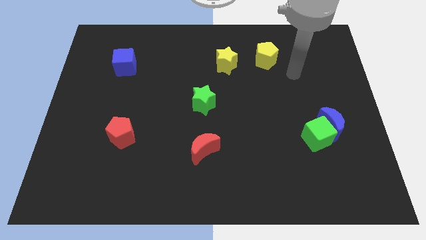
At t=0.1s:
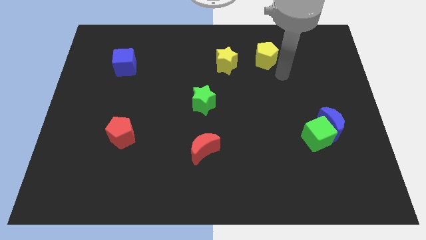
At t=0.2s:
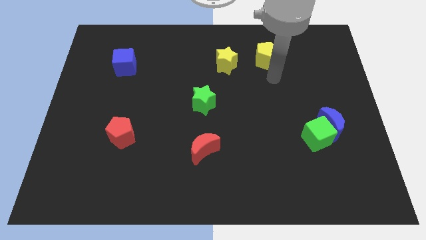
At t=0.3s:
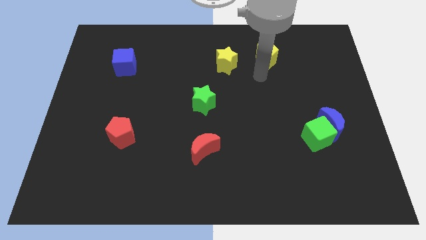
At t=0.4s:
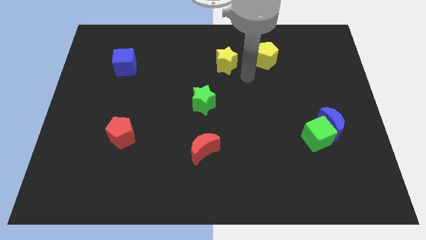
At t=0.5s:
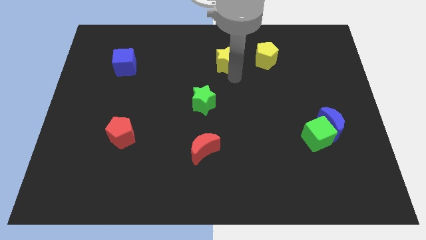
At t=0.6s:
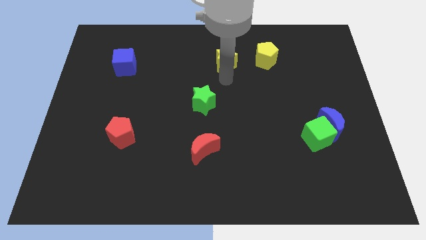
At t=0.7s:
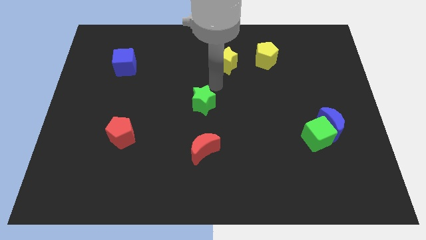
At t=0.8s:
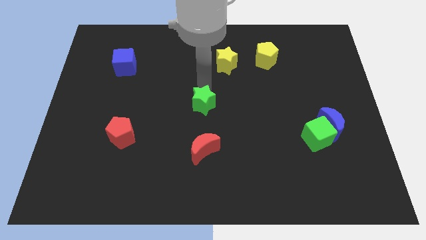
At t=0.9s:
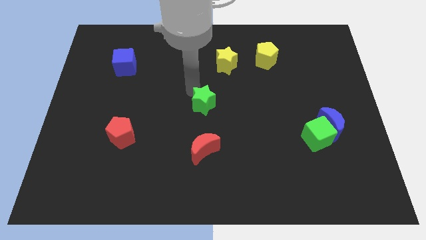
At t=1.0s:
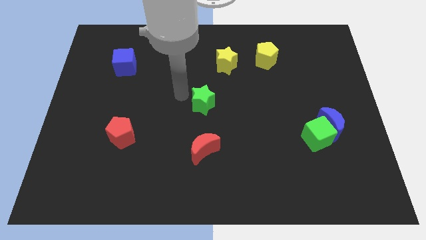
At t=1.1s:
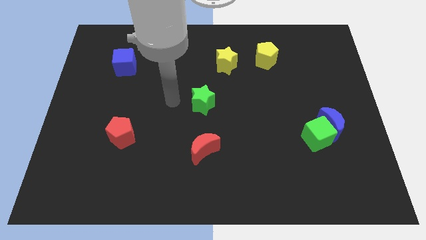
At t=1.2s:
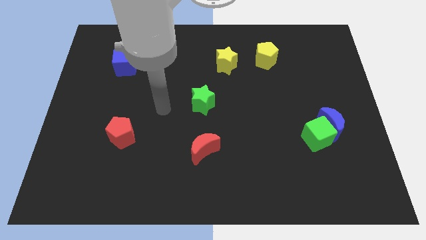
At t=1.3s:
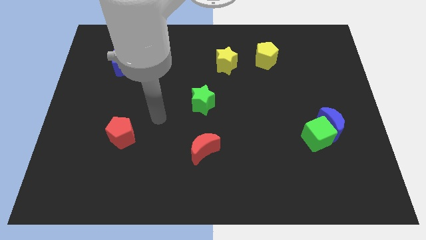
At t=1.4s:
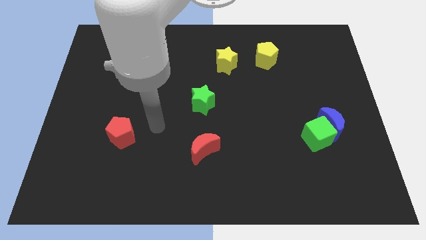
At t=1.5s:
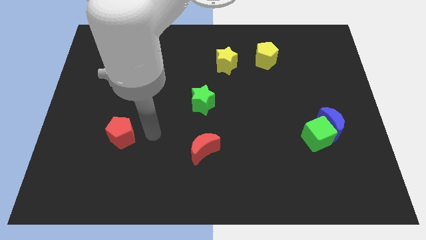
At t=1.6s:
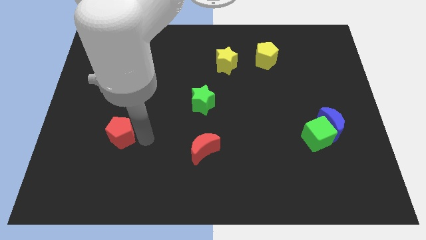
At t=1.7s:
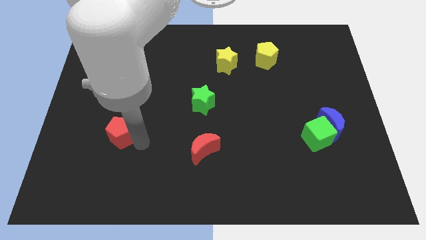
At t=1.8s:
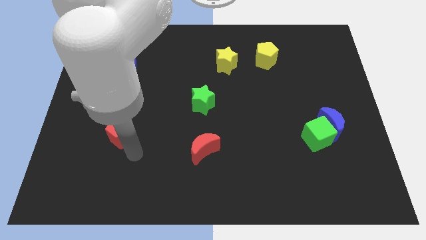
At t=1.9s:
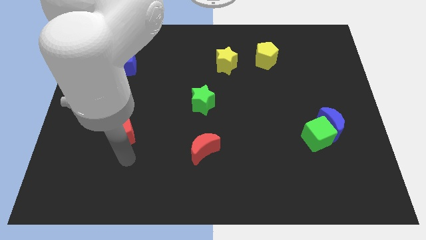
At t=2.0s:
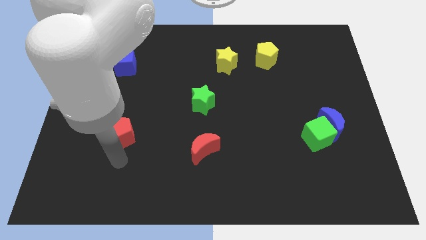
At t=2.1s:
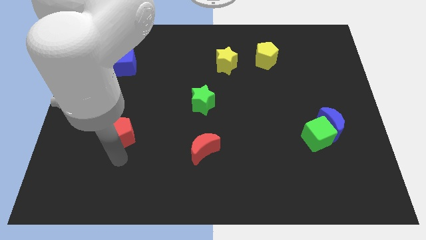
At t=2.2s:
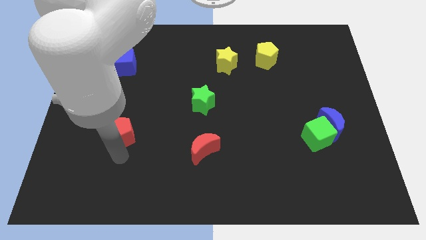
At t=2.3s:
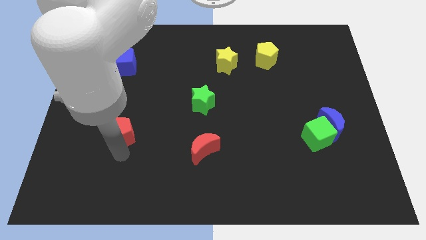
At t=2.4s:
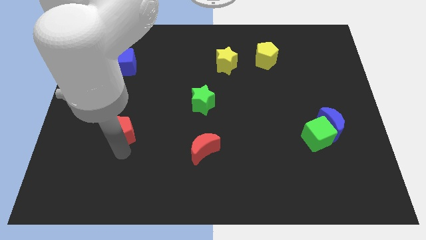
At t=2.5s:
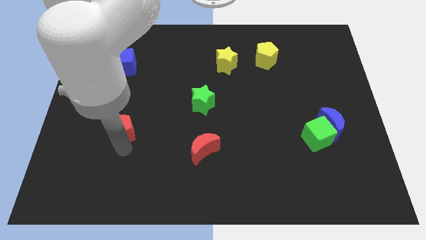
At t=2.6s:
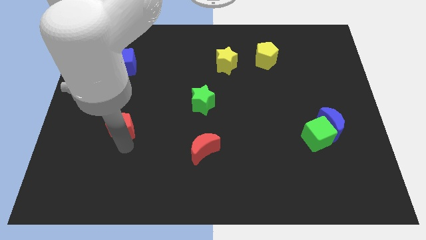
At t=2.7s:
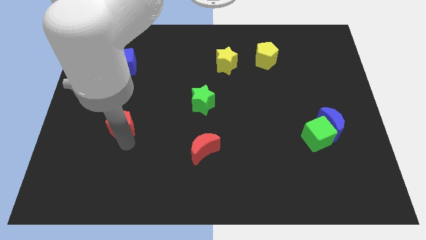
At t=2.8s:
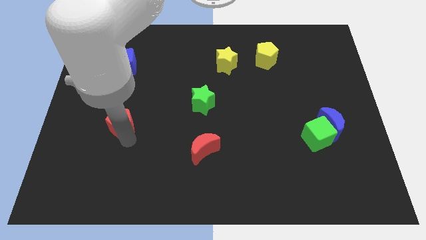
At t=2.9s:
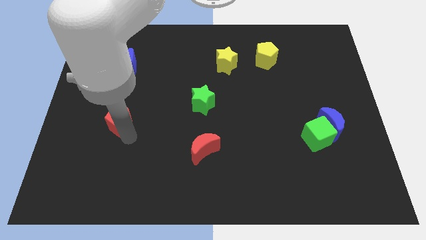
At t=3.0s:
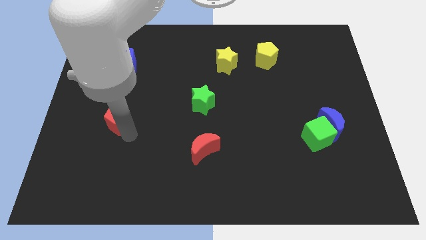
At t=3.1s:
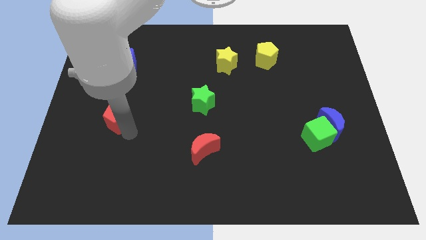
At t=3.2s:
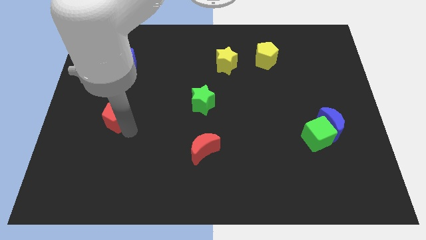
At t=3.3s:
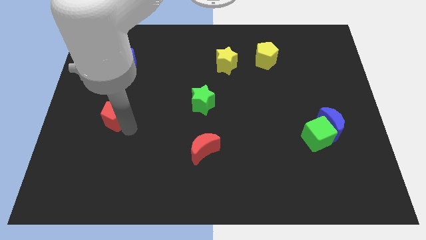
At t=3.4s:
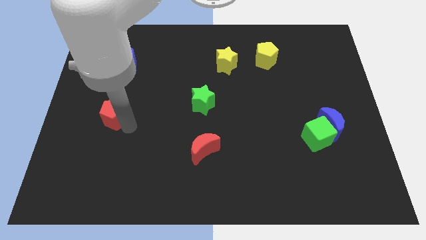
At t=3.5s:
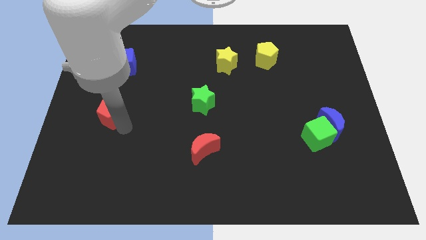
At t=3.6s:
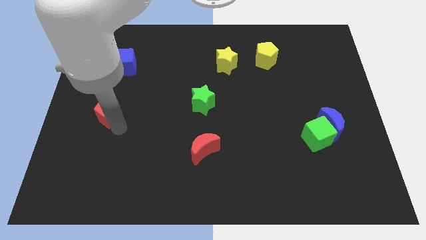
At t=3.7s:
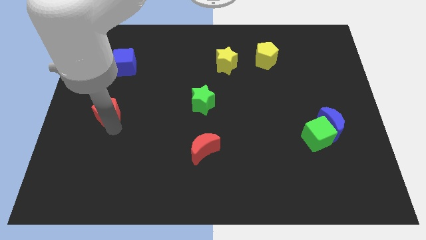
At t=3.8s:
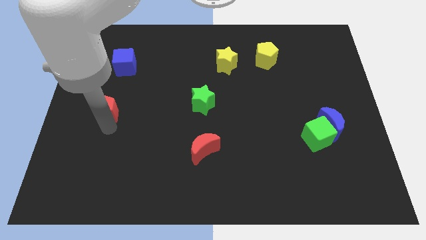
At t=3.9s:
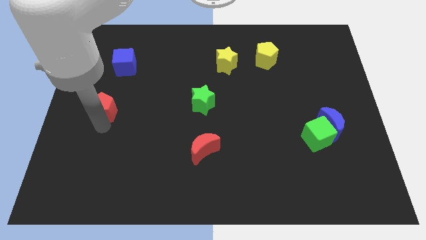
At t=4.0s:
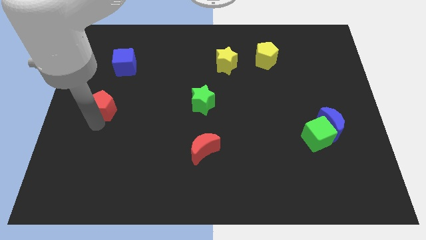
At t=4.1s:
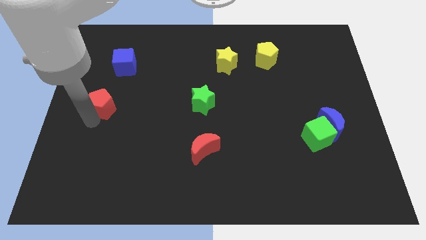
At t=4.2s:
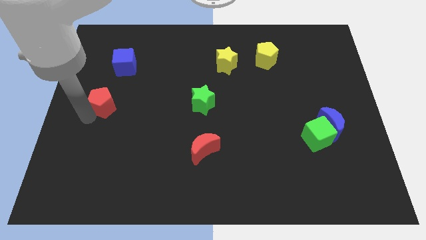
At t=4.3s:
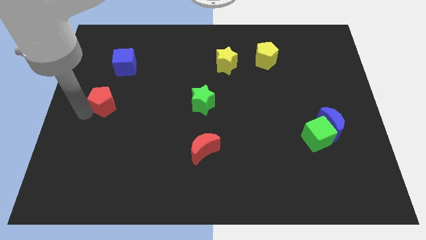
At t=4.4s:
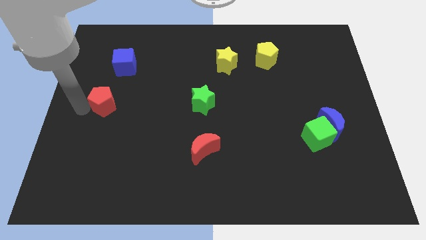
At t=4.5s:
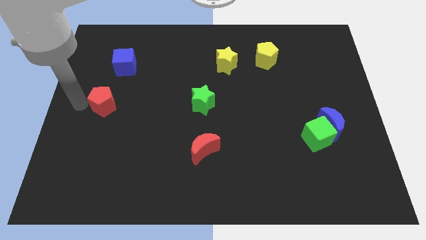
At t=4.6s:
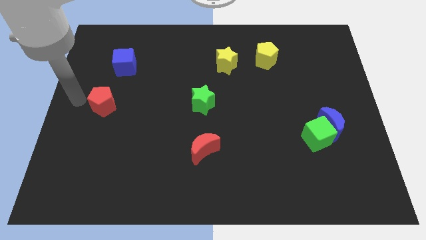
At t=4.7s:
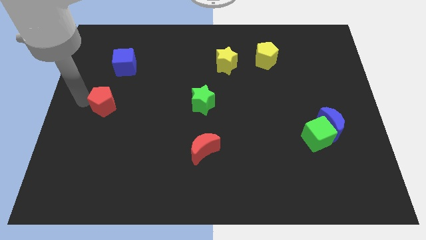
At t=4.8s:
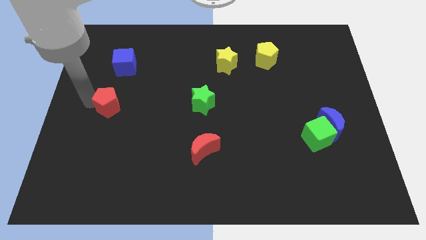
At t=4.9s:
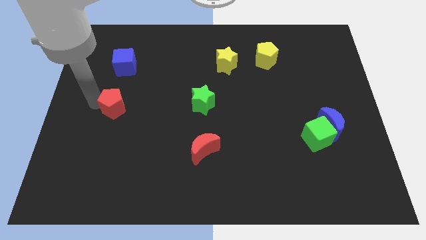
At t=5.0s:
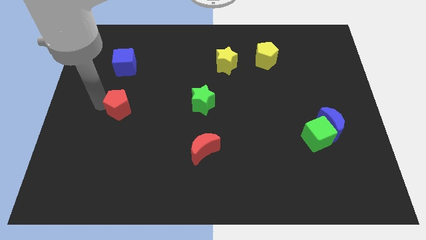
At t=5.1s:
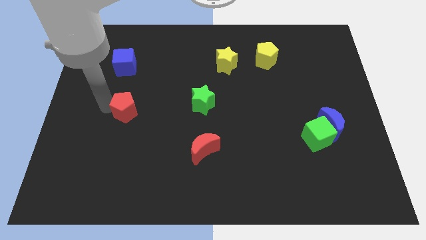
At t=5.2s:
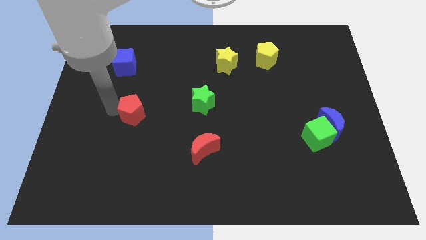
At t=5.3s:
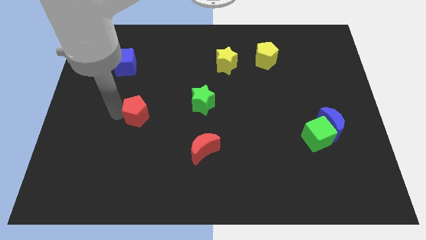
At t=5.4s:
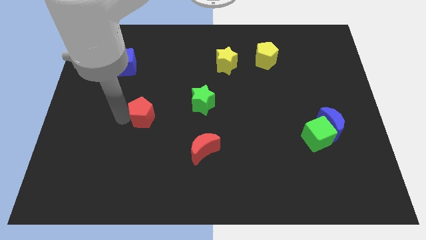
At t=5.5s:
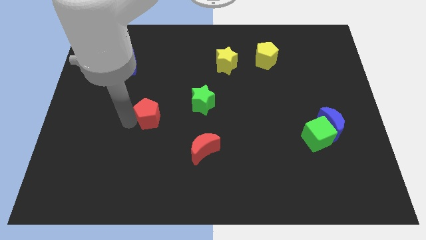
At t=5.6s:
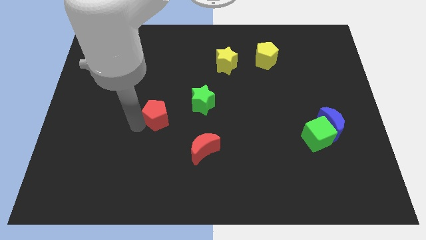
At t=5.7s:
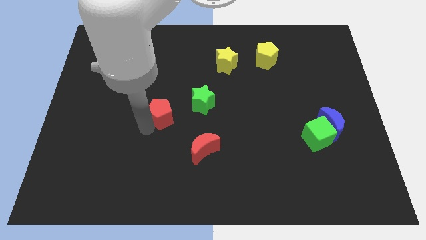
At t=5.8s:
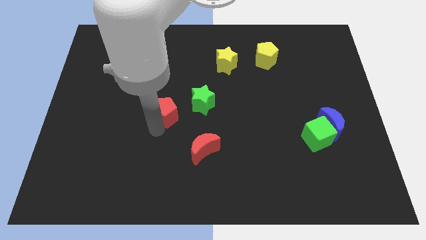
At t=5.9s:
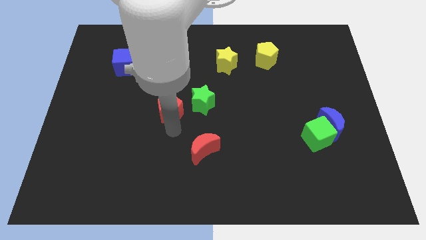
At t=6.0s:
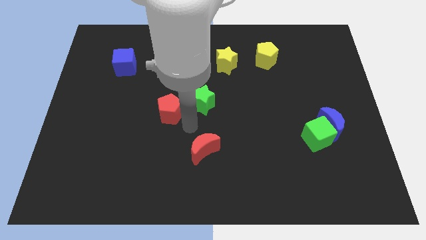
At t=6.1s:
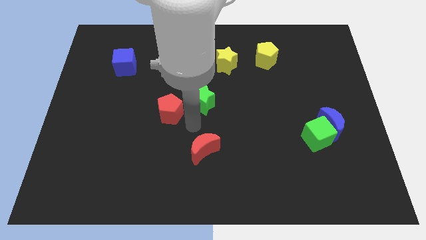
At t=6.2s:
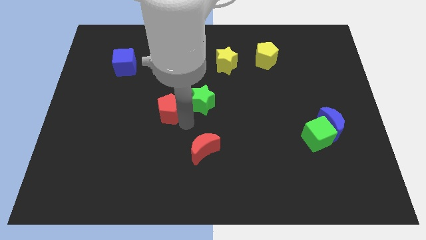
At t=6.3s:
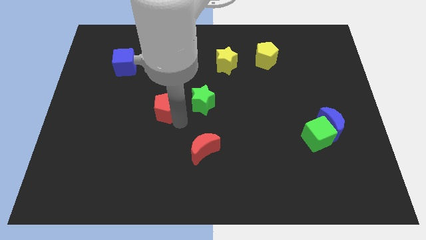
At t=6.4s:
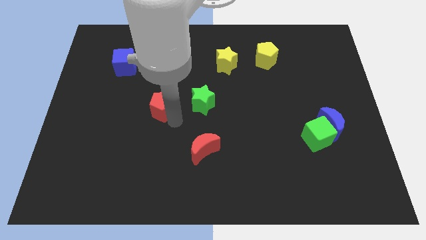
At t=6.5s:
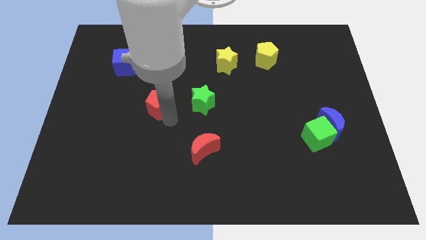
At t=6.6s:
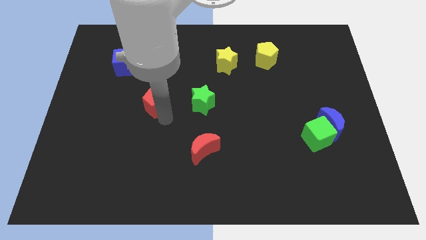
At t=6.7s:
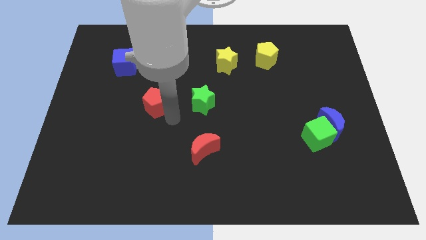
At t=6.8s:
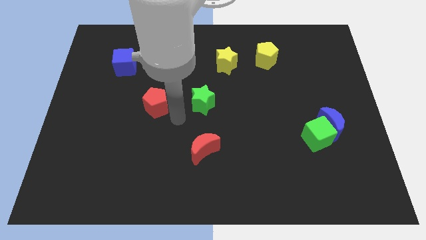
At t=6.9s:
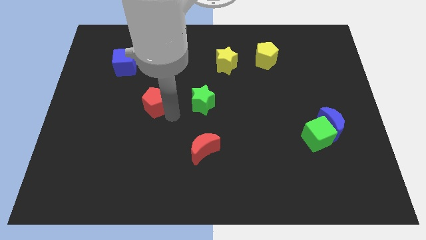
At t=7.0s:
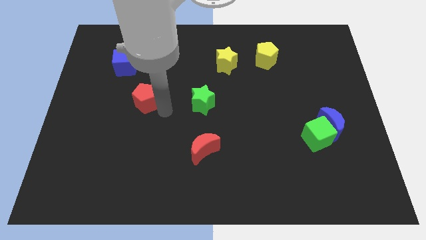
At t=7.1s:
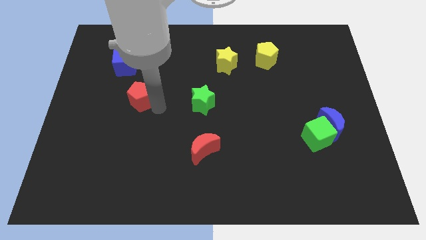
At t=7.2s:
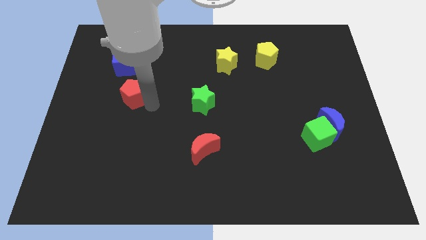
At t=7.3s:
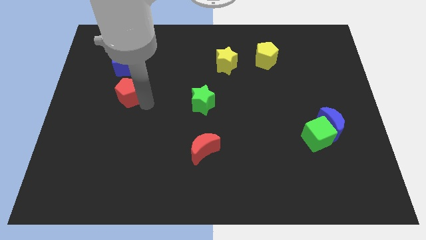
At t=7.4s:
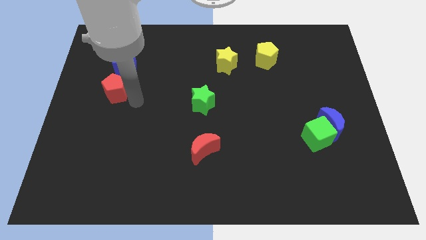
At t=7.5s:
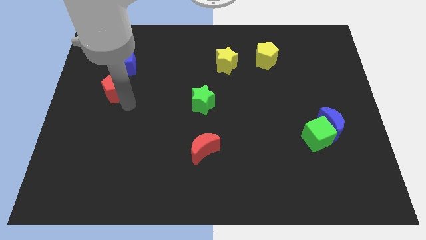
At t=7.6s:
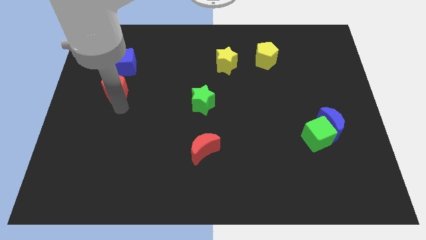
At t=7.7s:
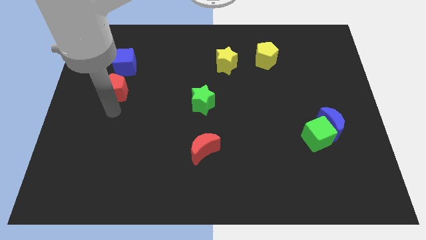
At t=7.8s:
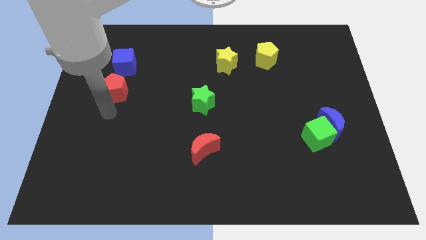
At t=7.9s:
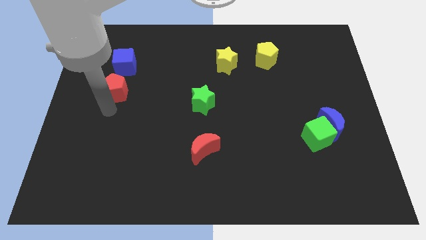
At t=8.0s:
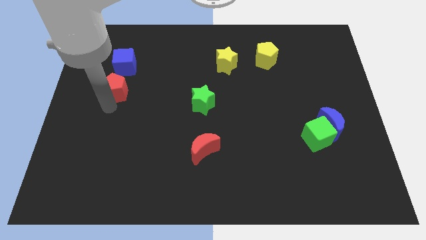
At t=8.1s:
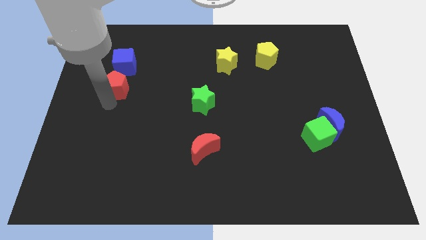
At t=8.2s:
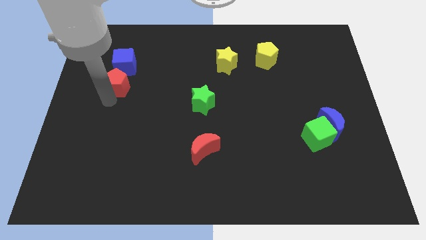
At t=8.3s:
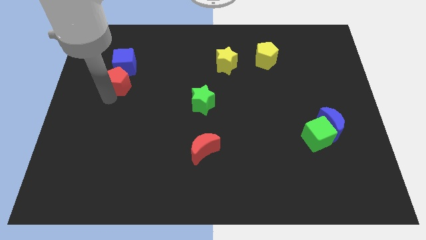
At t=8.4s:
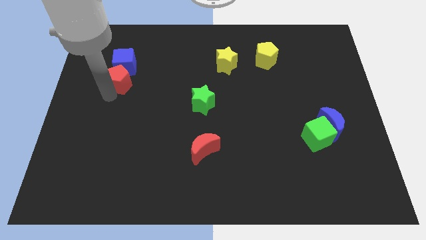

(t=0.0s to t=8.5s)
slide the red pentagon next to the blue cube
